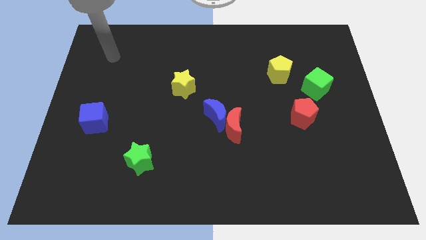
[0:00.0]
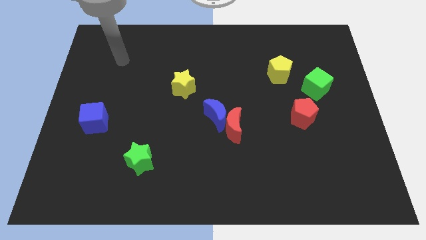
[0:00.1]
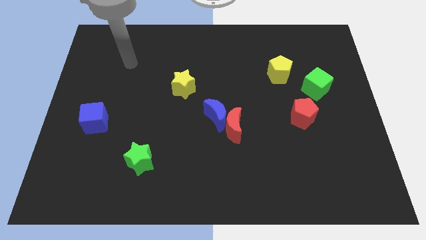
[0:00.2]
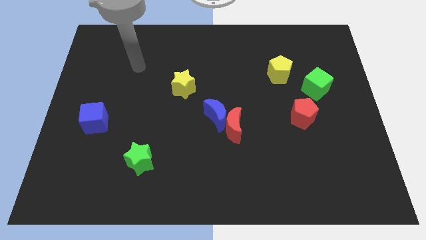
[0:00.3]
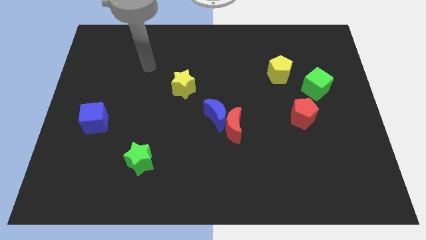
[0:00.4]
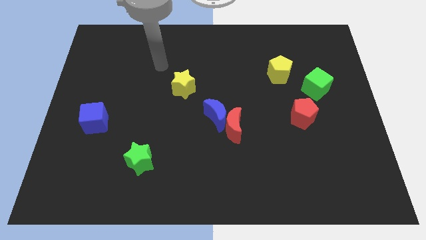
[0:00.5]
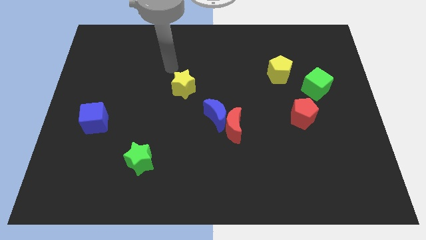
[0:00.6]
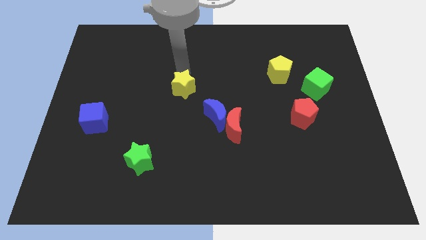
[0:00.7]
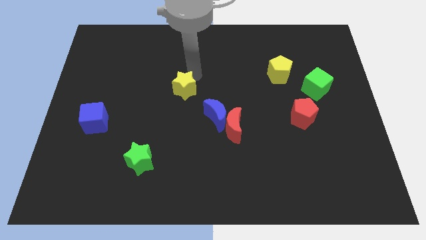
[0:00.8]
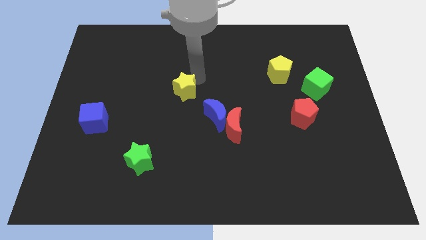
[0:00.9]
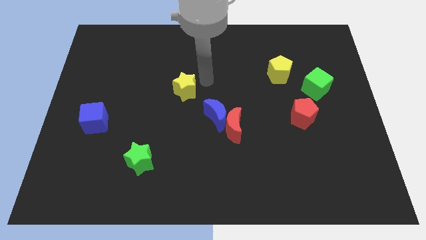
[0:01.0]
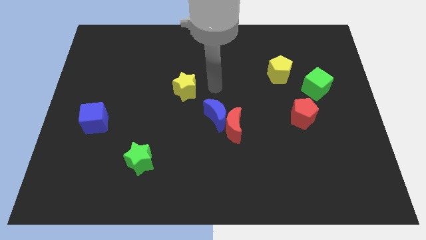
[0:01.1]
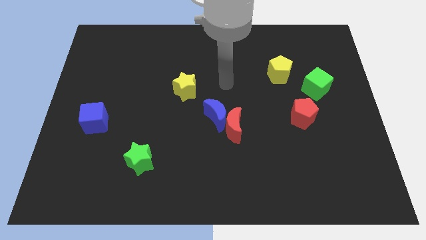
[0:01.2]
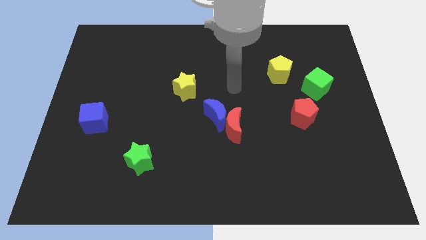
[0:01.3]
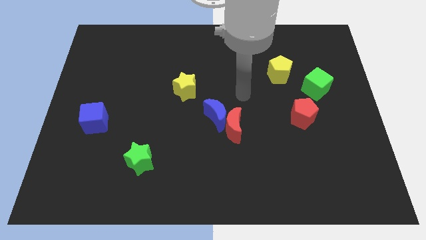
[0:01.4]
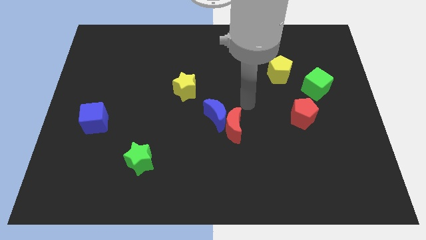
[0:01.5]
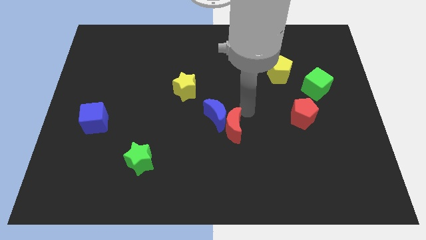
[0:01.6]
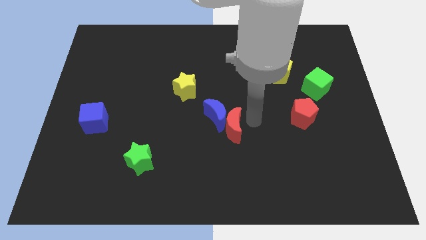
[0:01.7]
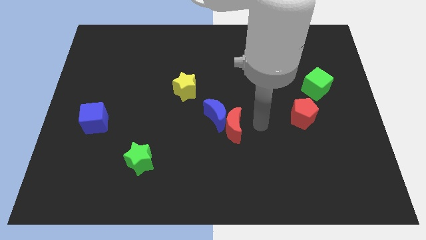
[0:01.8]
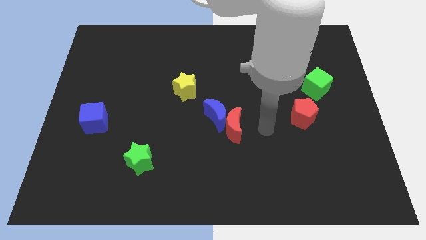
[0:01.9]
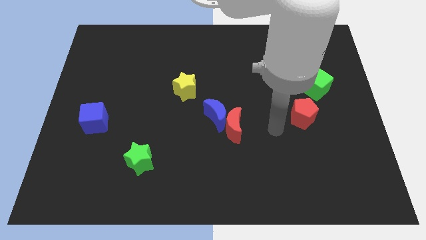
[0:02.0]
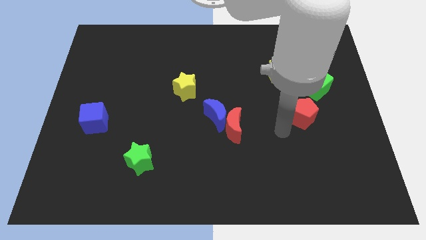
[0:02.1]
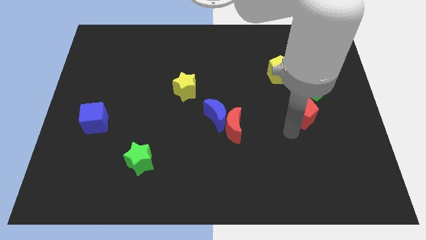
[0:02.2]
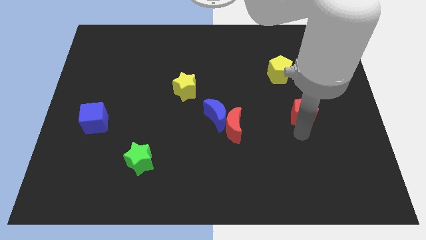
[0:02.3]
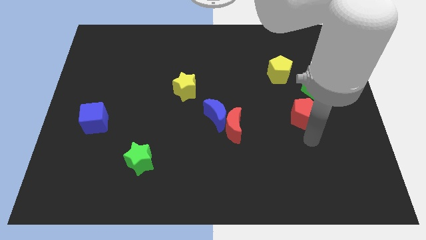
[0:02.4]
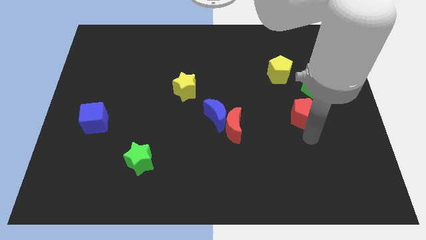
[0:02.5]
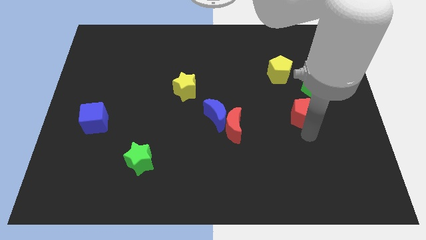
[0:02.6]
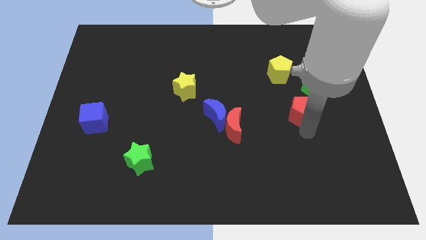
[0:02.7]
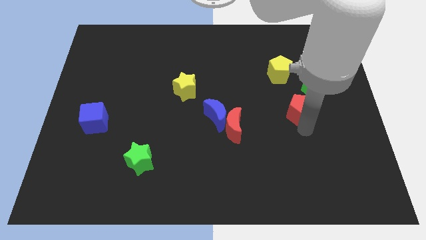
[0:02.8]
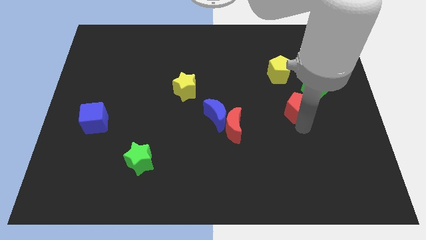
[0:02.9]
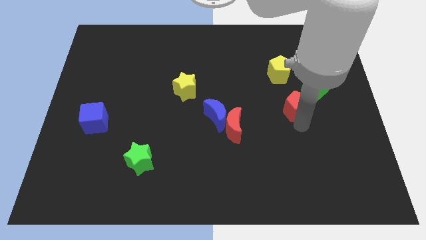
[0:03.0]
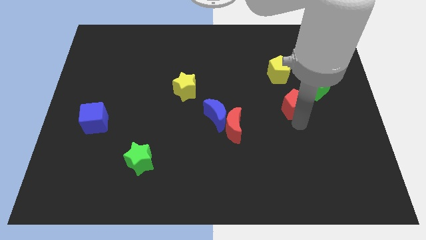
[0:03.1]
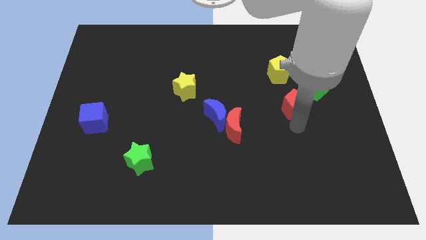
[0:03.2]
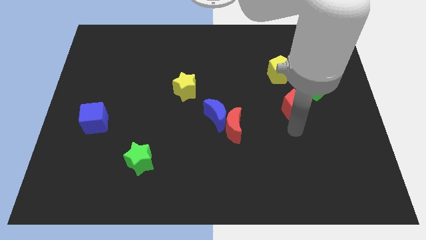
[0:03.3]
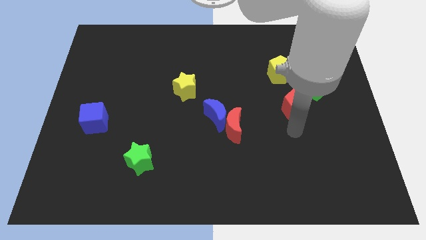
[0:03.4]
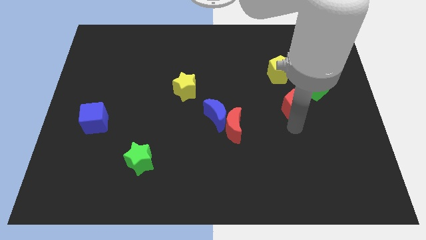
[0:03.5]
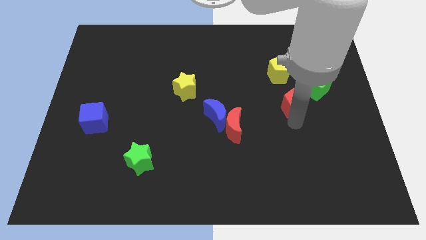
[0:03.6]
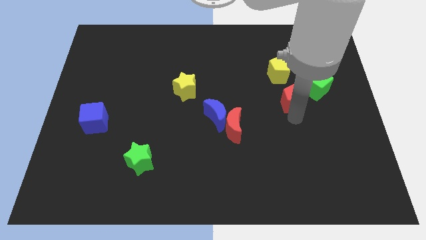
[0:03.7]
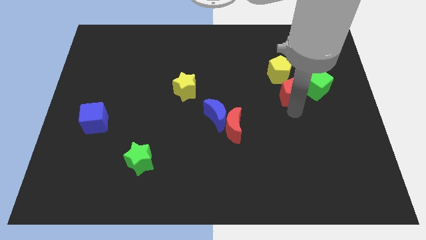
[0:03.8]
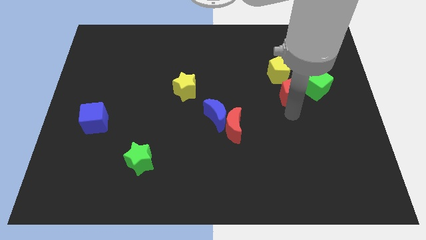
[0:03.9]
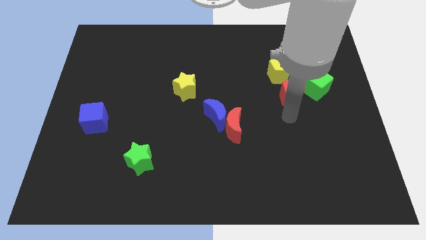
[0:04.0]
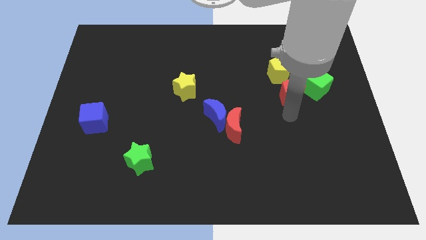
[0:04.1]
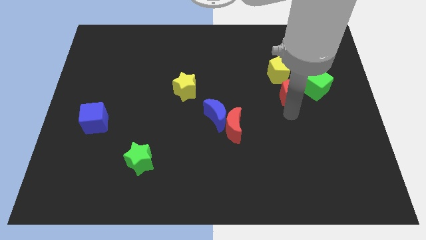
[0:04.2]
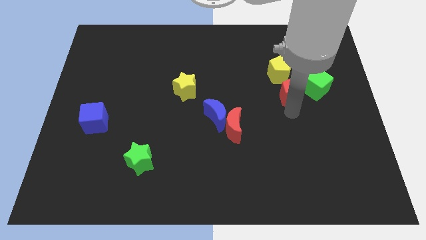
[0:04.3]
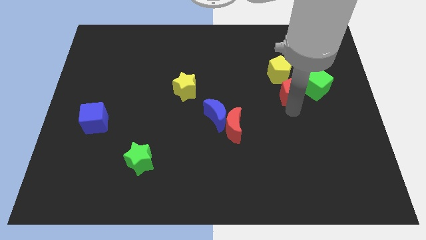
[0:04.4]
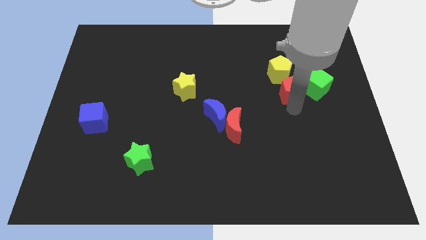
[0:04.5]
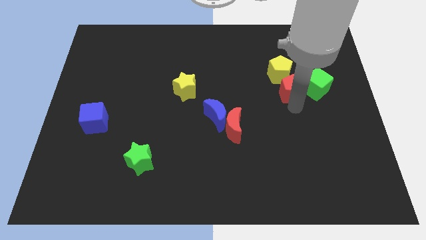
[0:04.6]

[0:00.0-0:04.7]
slightly slide the red pentagon up

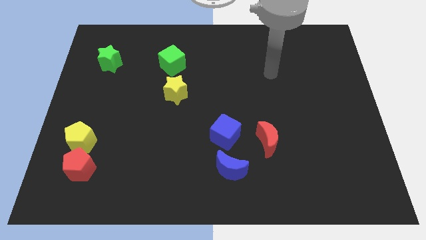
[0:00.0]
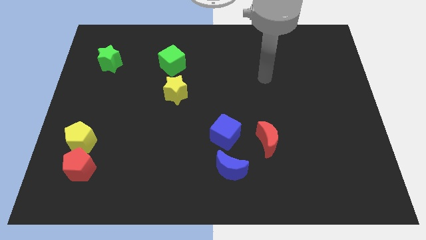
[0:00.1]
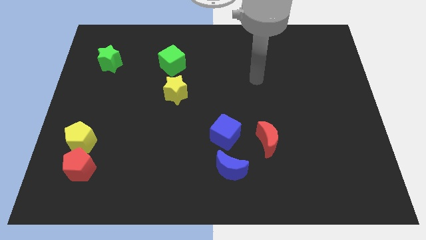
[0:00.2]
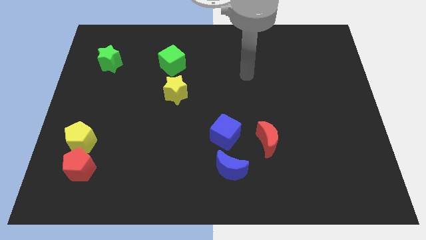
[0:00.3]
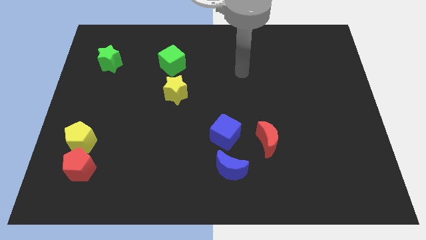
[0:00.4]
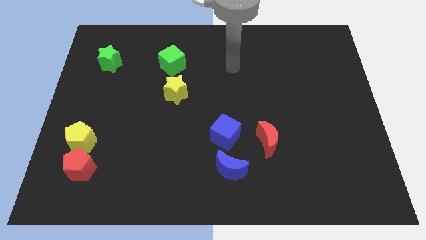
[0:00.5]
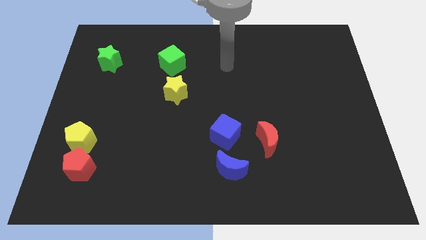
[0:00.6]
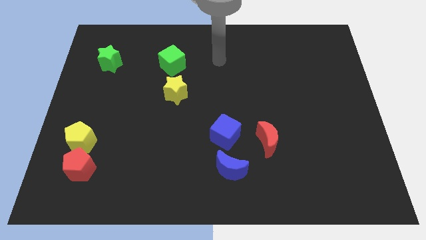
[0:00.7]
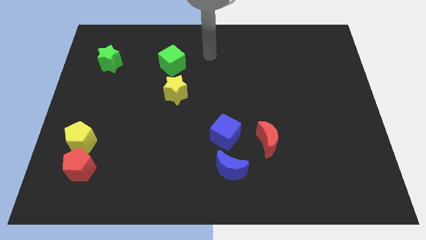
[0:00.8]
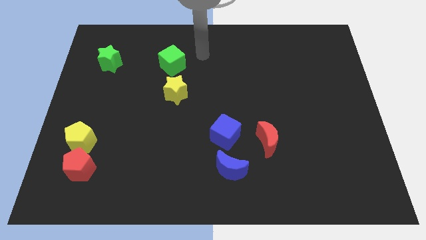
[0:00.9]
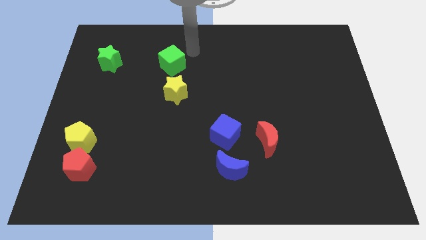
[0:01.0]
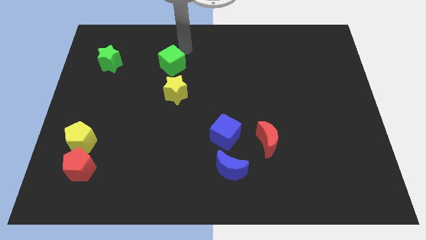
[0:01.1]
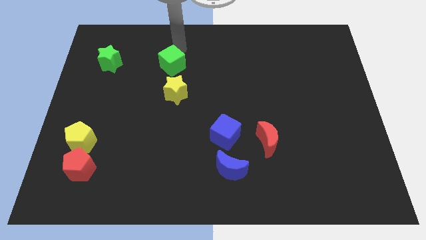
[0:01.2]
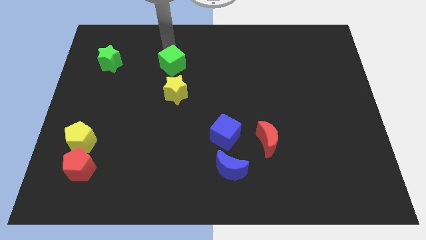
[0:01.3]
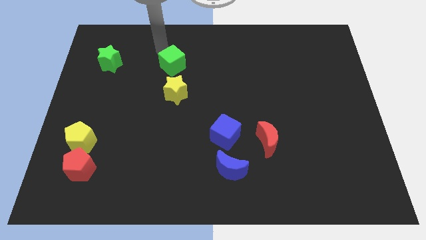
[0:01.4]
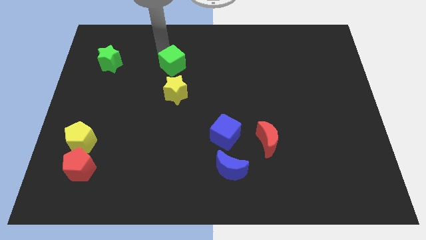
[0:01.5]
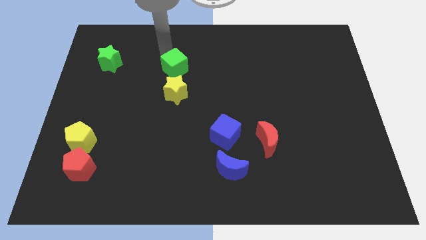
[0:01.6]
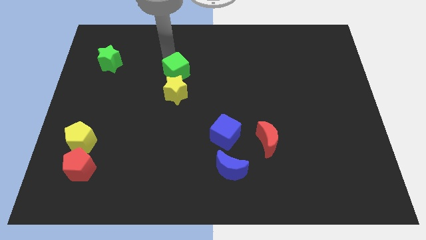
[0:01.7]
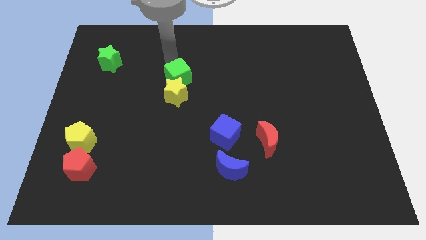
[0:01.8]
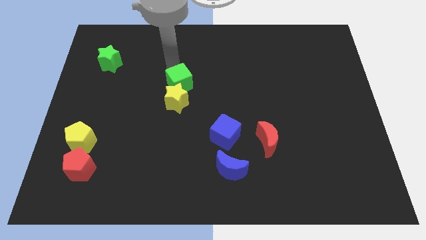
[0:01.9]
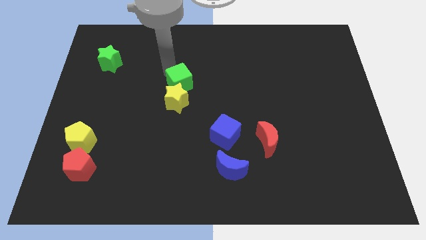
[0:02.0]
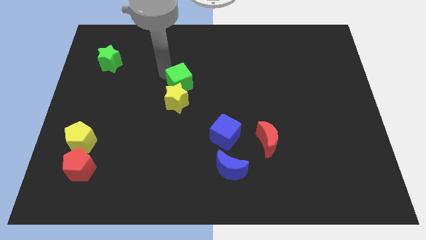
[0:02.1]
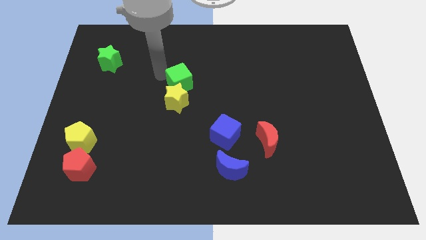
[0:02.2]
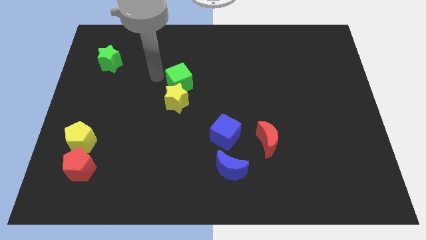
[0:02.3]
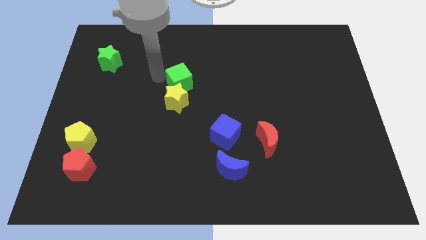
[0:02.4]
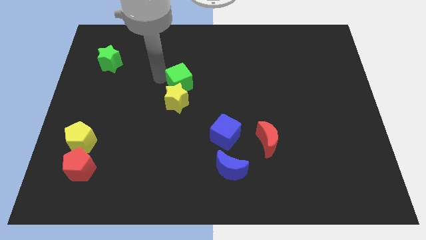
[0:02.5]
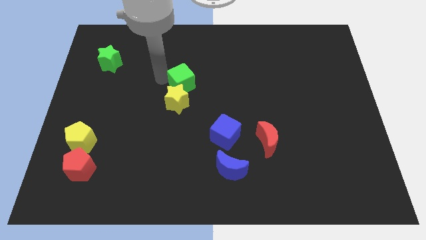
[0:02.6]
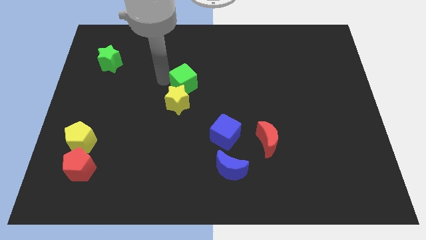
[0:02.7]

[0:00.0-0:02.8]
slide the green cube a bit down and then to the right

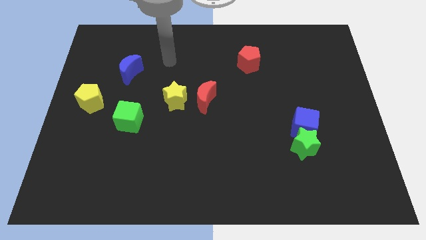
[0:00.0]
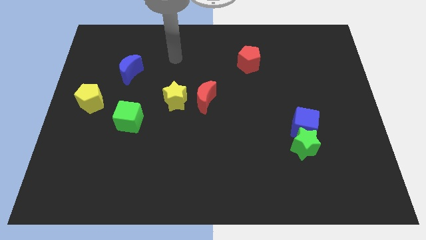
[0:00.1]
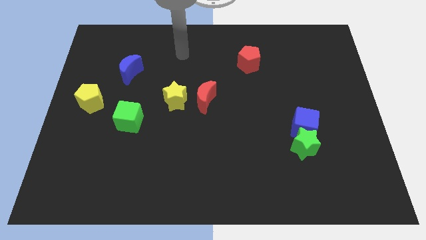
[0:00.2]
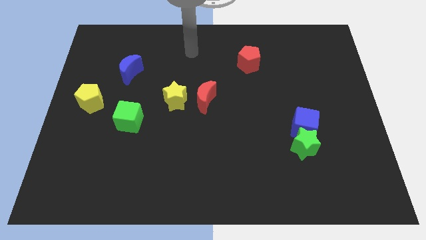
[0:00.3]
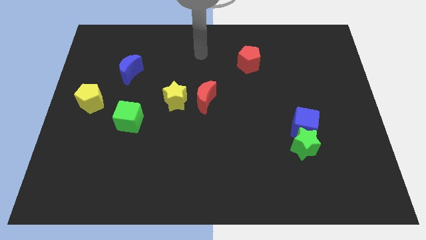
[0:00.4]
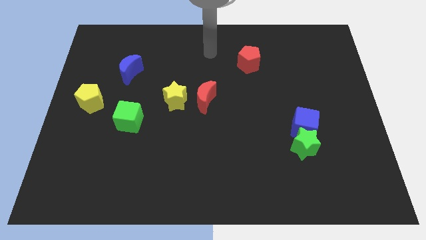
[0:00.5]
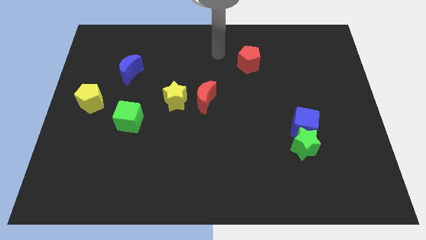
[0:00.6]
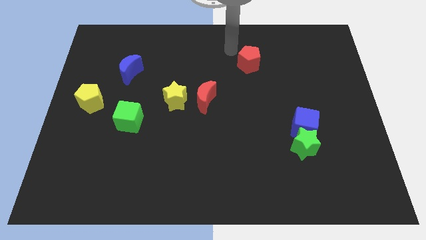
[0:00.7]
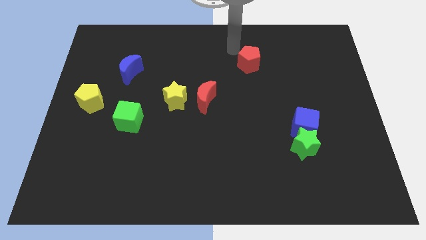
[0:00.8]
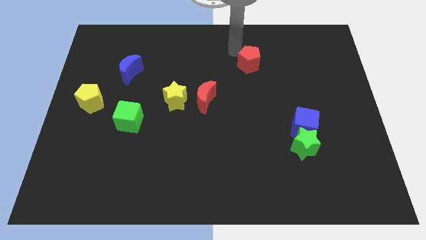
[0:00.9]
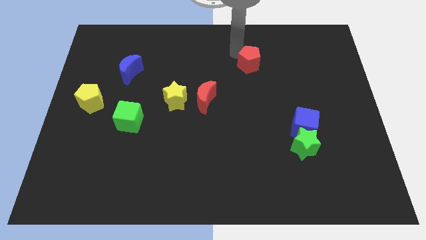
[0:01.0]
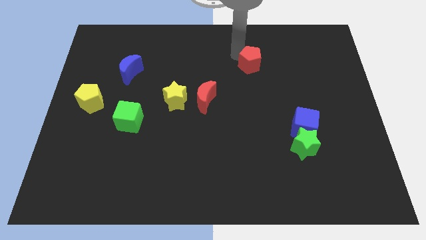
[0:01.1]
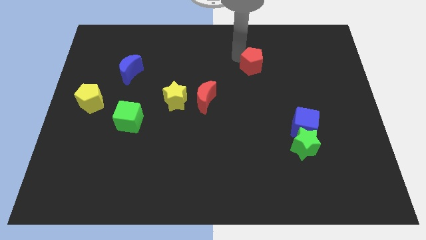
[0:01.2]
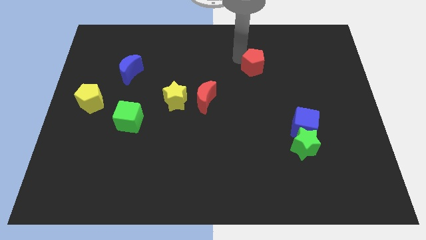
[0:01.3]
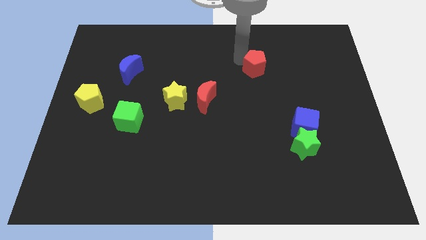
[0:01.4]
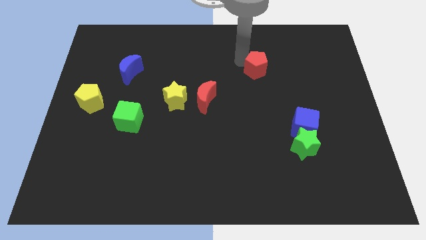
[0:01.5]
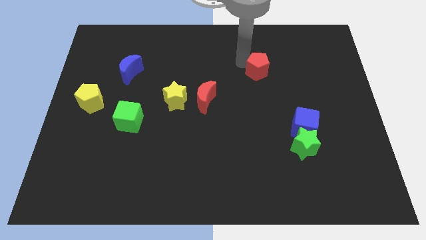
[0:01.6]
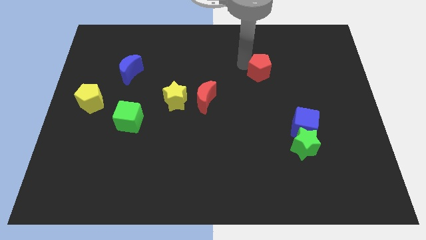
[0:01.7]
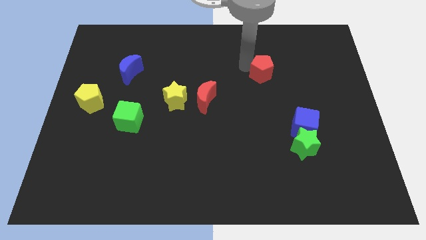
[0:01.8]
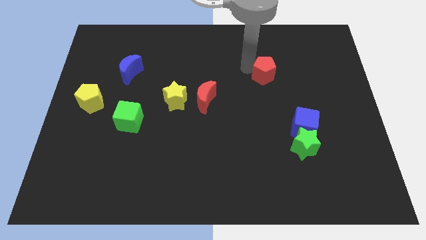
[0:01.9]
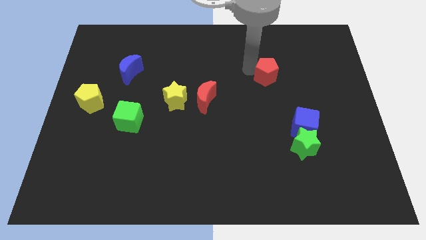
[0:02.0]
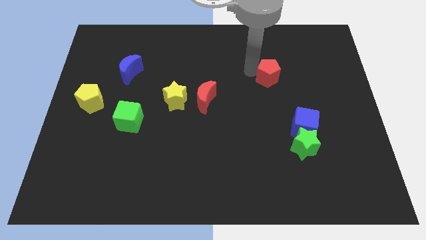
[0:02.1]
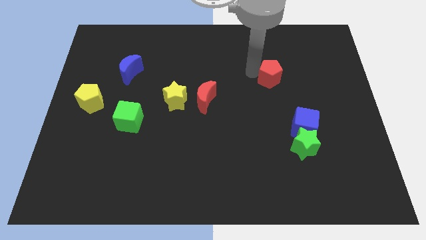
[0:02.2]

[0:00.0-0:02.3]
slightly push the red pentagon diagonally downwards and right
